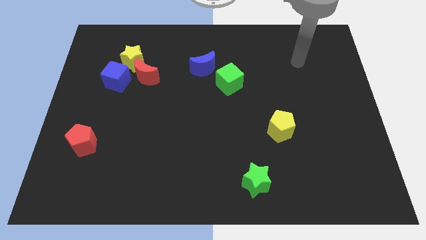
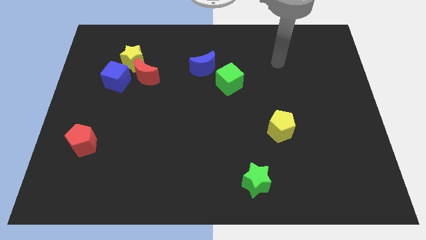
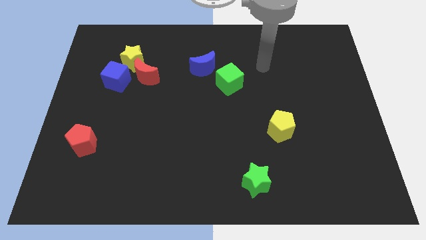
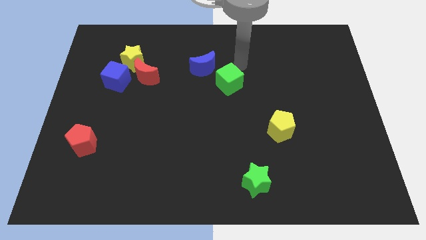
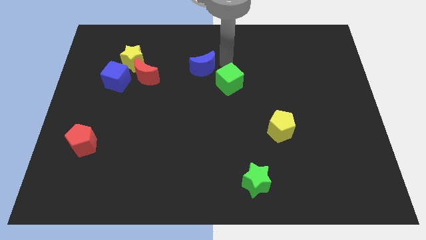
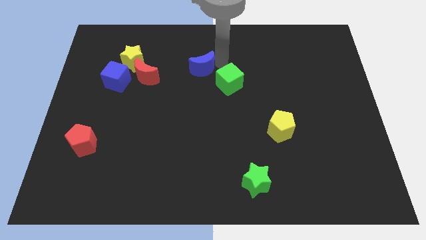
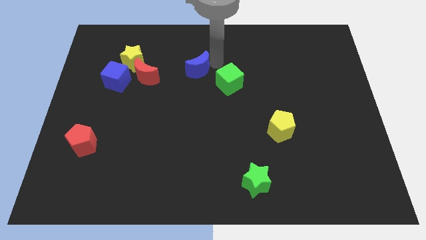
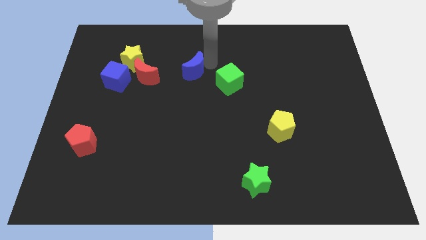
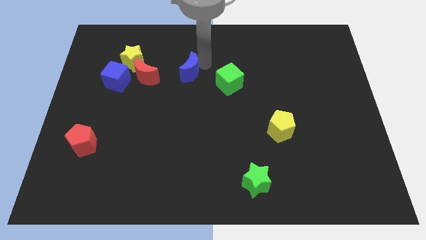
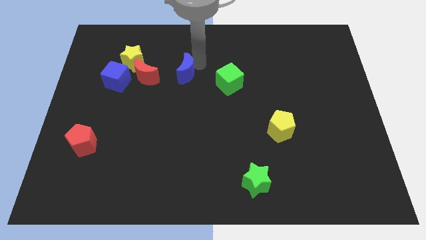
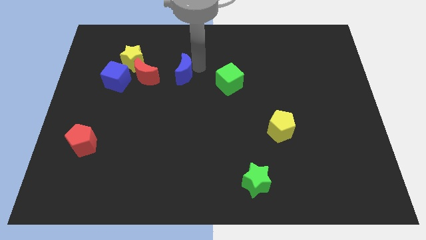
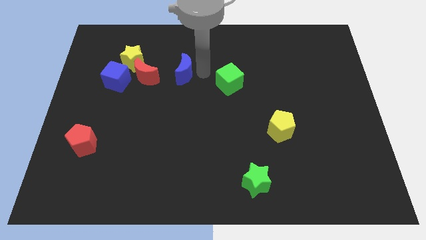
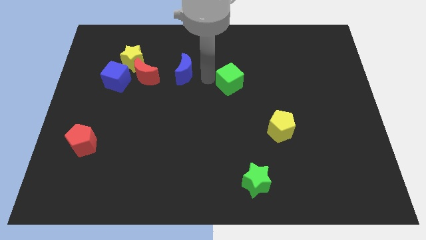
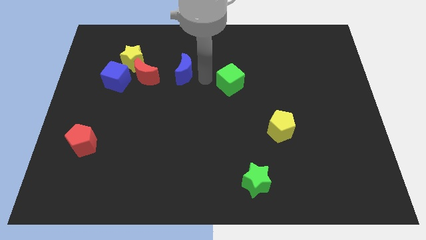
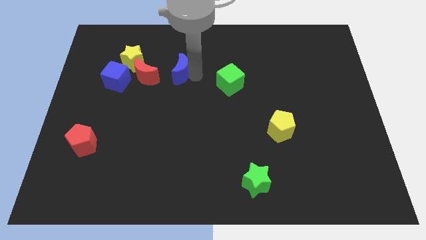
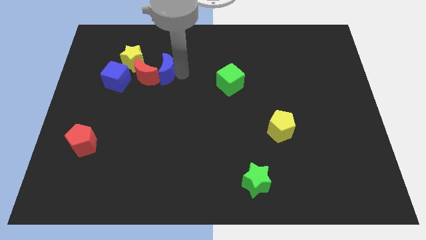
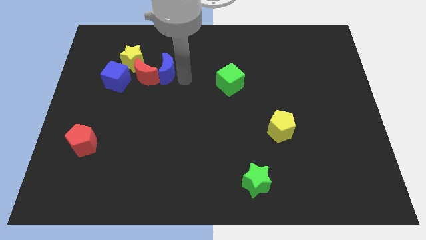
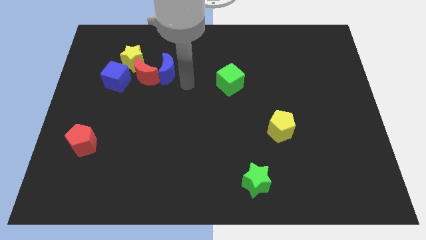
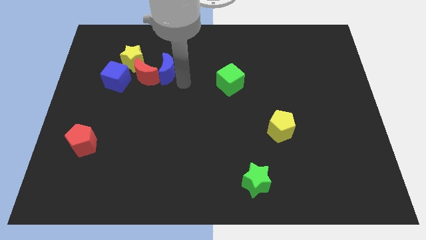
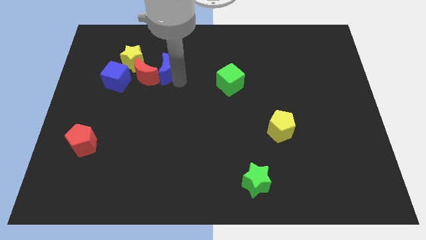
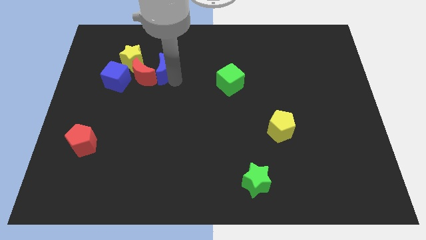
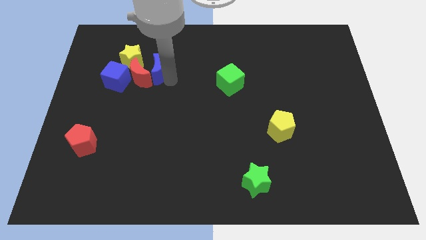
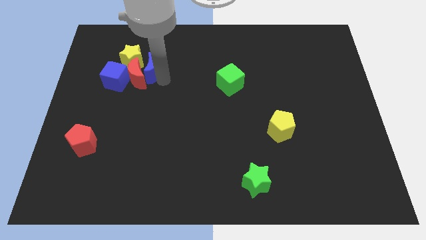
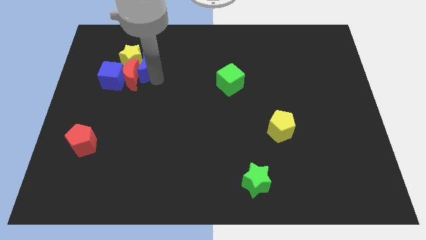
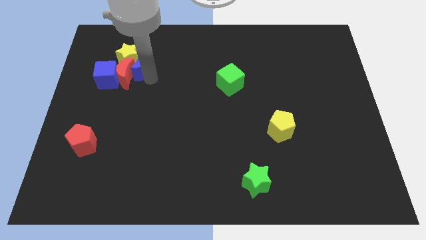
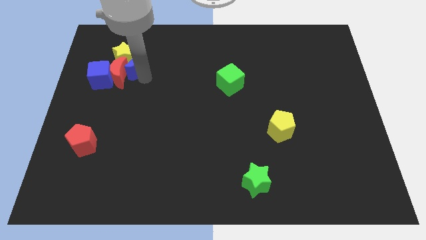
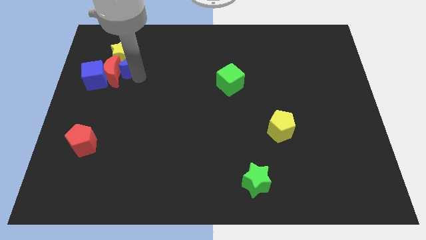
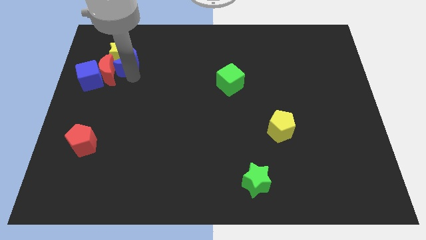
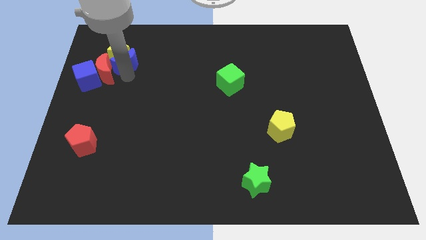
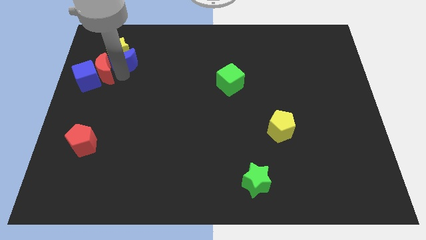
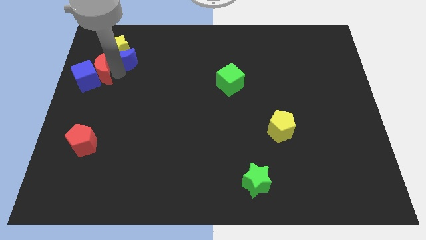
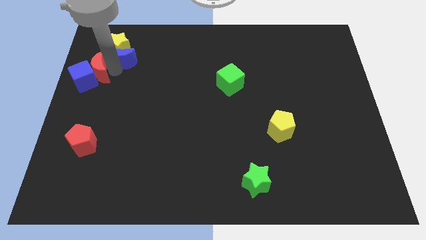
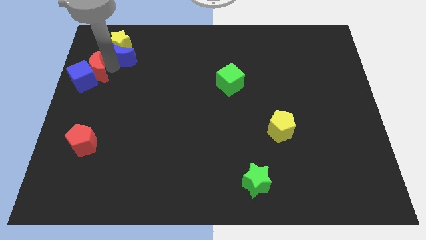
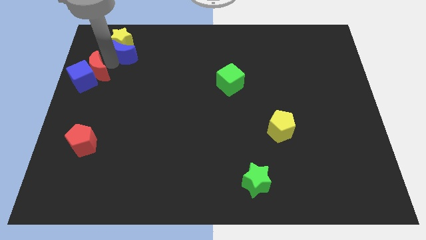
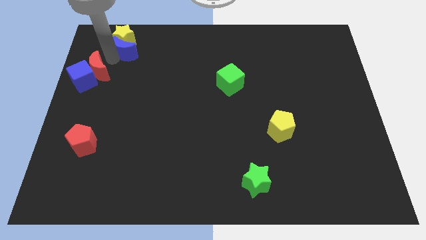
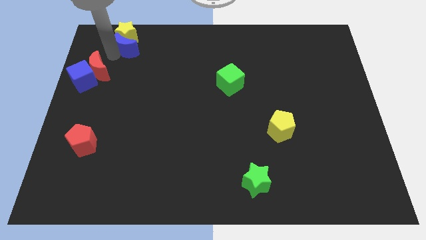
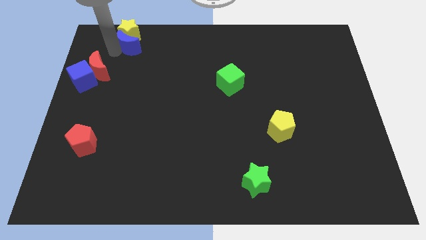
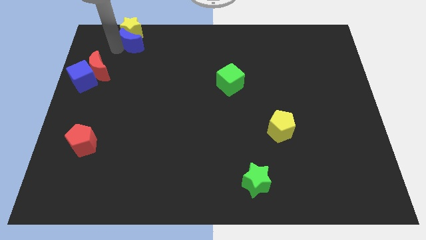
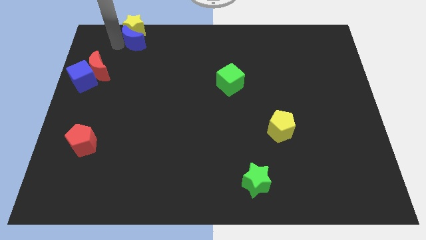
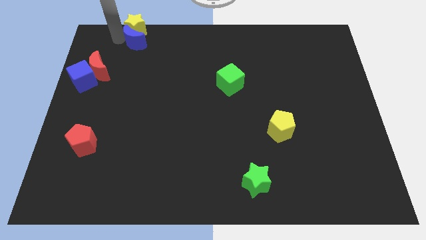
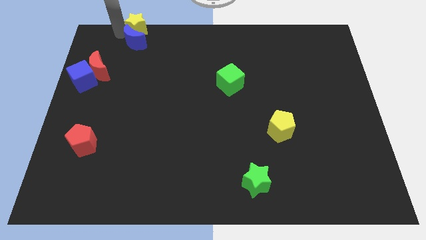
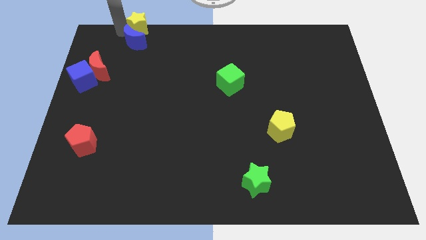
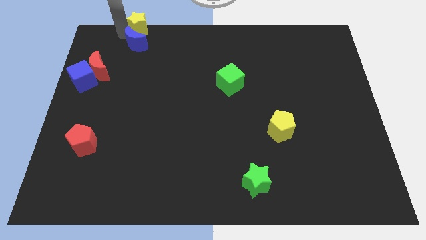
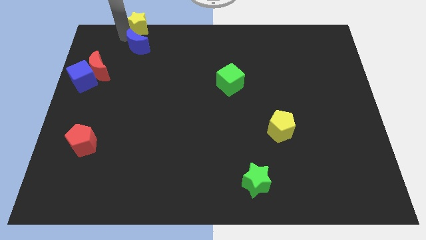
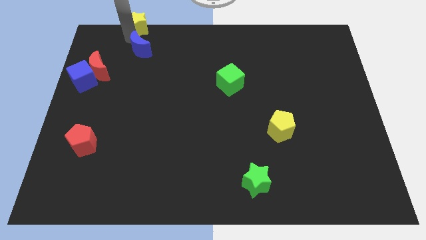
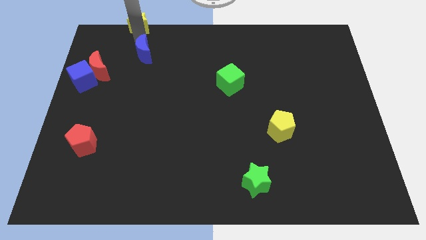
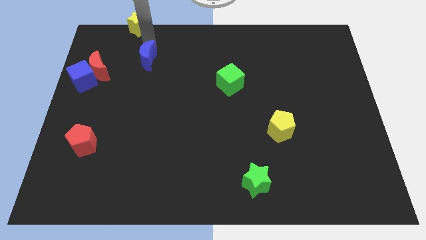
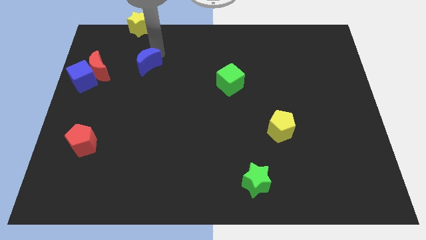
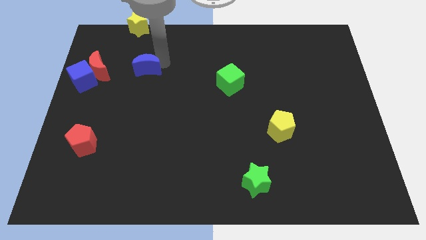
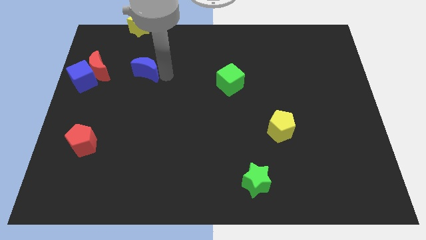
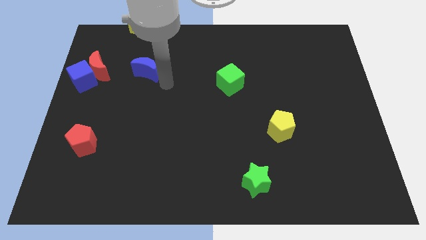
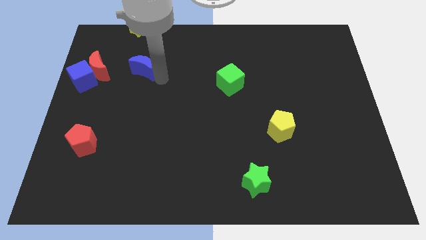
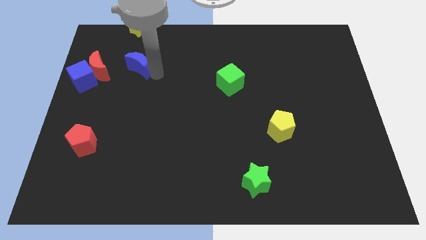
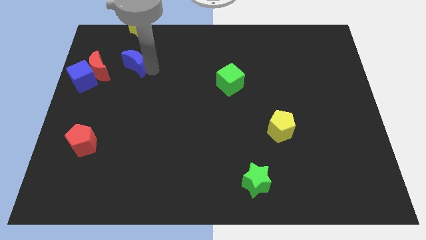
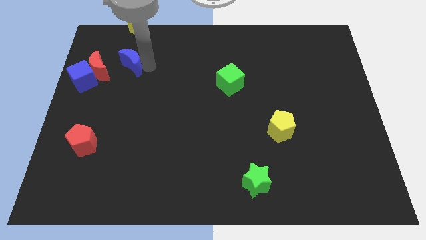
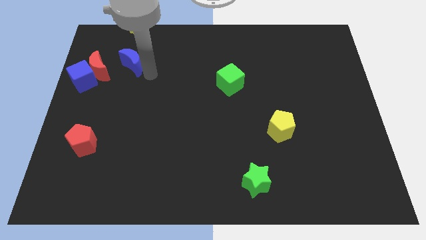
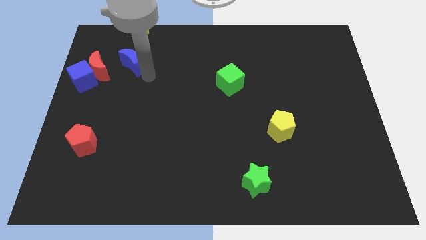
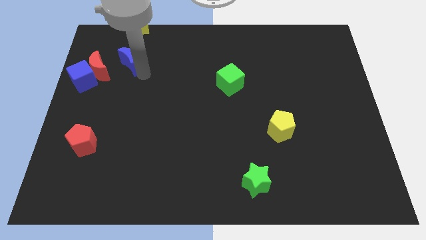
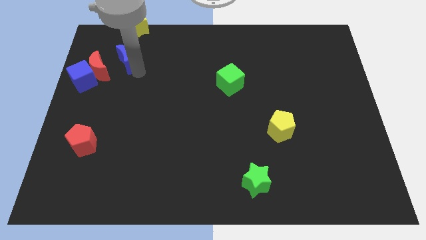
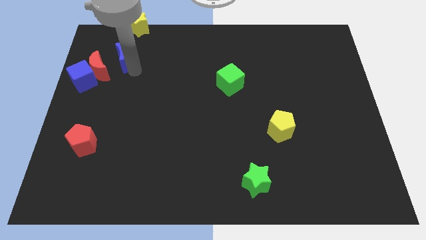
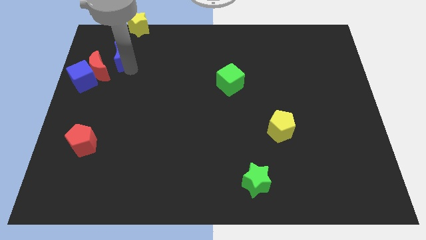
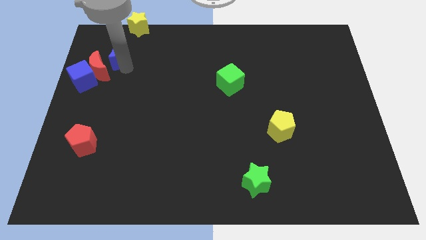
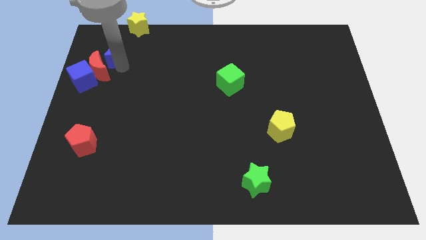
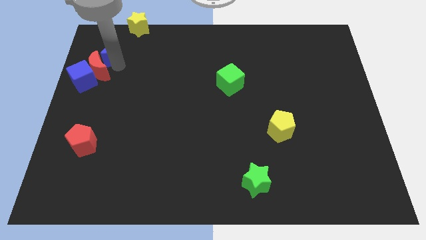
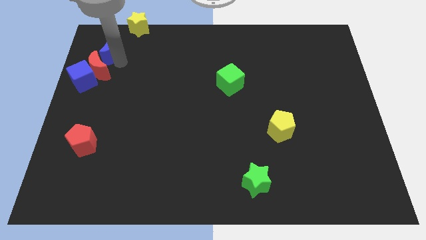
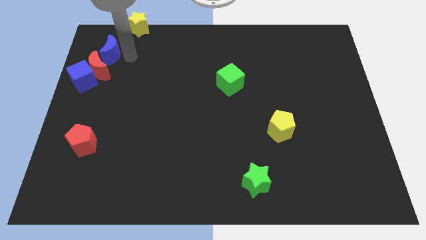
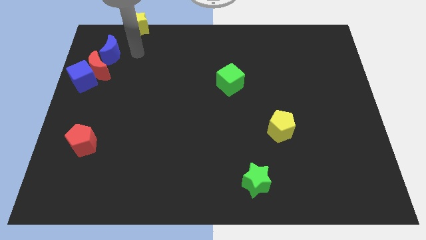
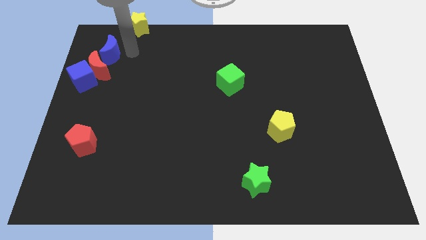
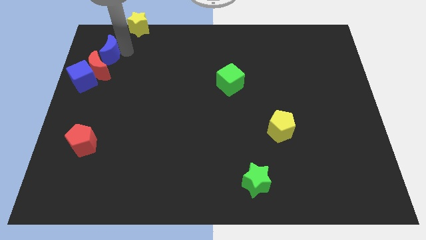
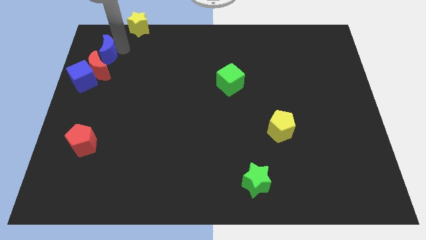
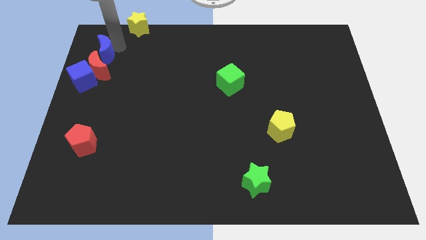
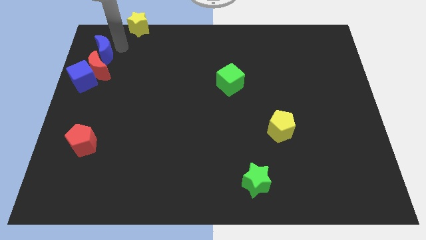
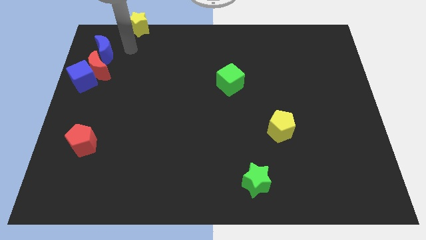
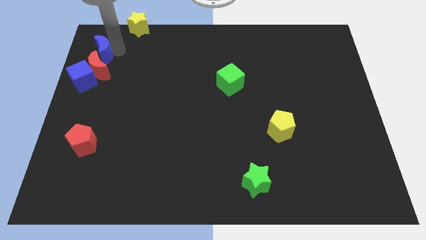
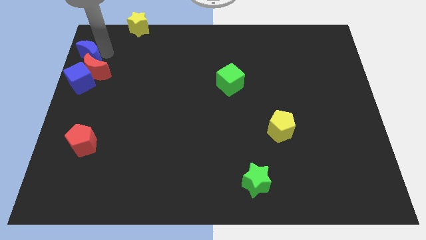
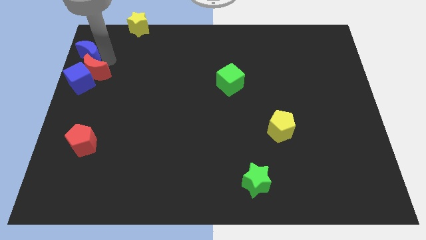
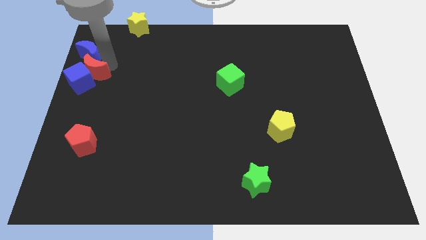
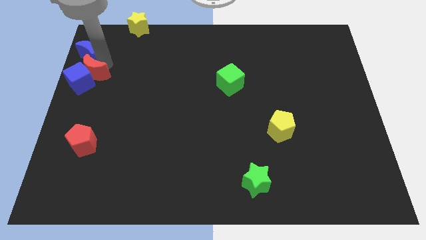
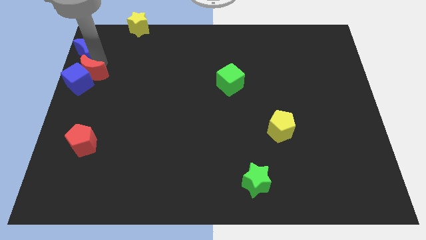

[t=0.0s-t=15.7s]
push the blue moon to the top left
